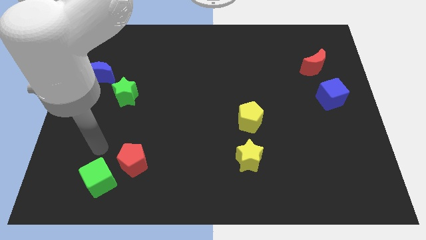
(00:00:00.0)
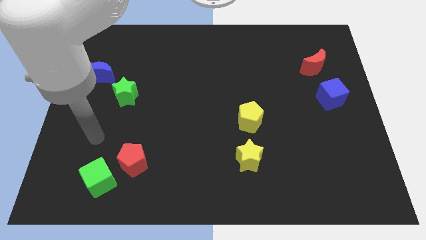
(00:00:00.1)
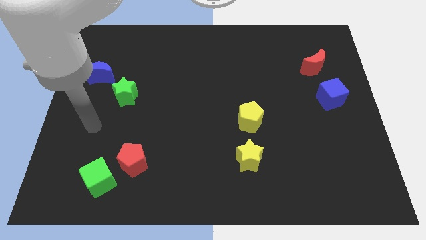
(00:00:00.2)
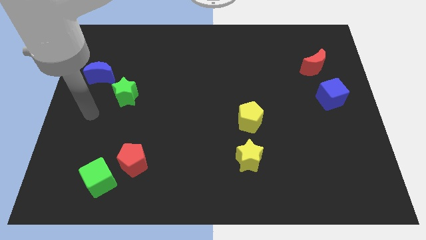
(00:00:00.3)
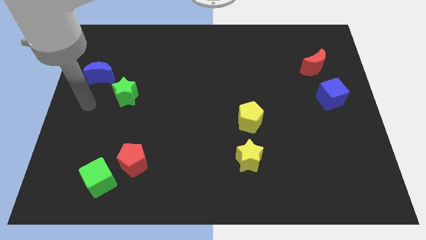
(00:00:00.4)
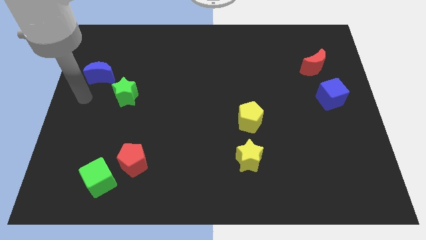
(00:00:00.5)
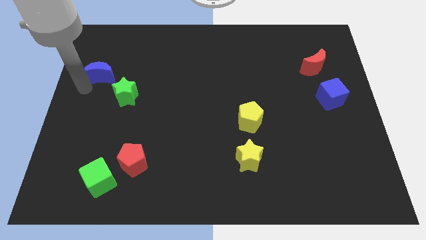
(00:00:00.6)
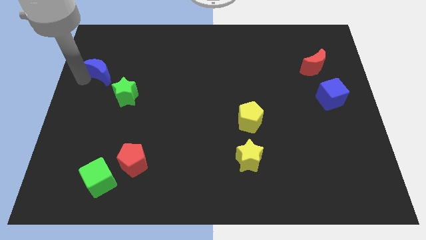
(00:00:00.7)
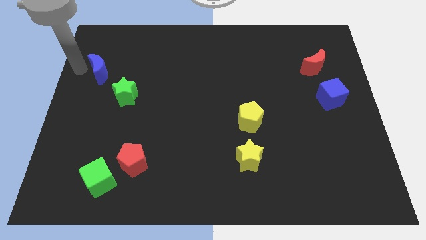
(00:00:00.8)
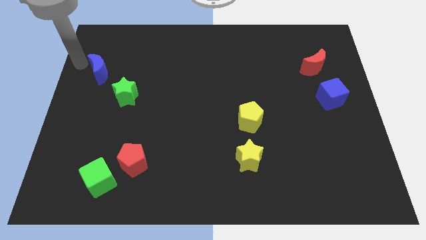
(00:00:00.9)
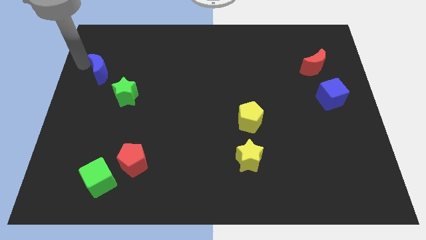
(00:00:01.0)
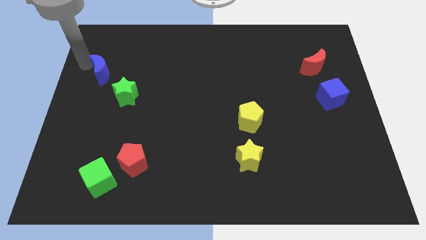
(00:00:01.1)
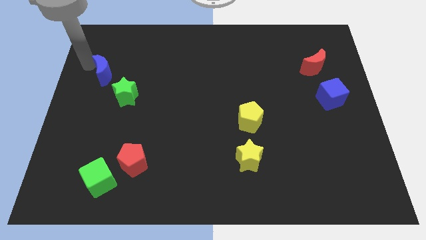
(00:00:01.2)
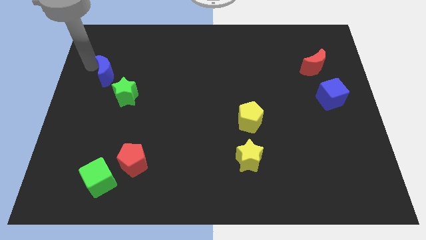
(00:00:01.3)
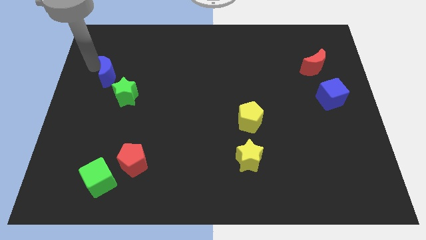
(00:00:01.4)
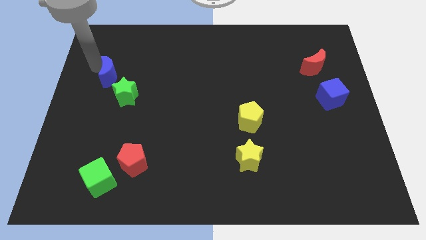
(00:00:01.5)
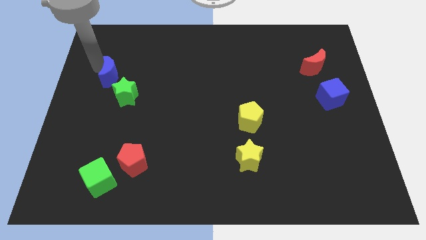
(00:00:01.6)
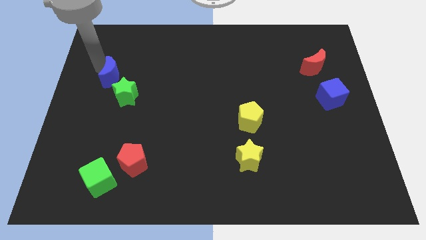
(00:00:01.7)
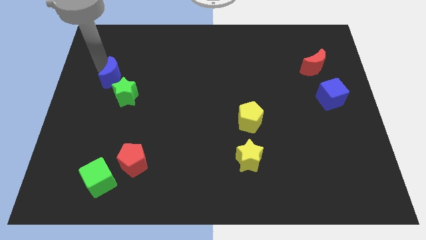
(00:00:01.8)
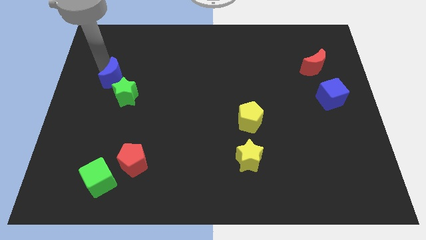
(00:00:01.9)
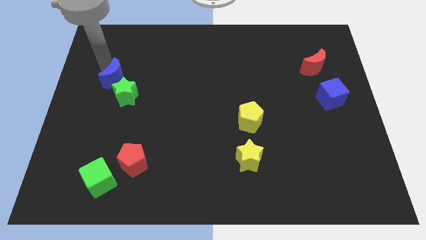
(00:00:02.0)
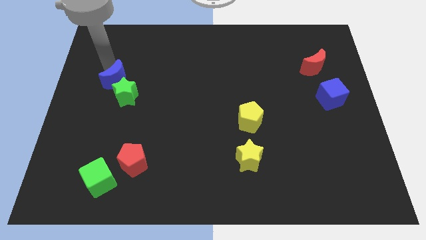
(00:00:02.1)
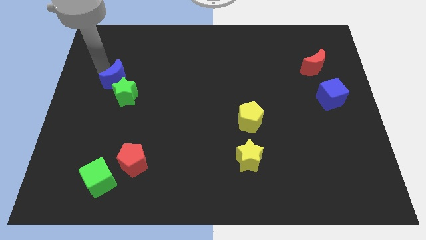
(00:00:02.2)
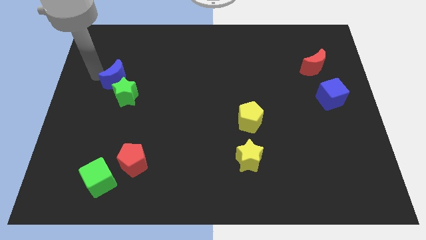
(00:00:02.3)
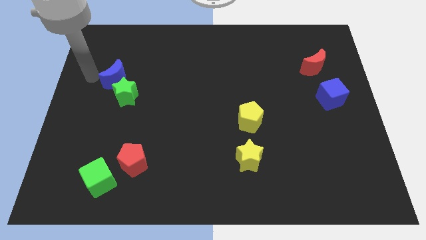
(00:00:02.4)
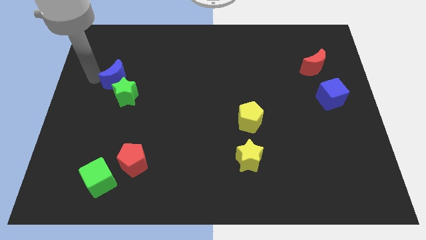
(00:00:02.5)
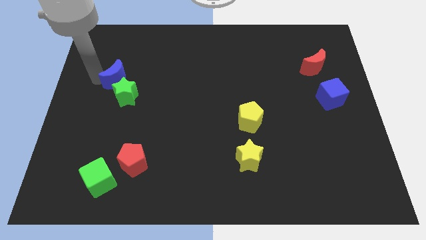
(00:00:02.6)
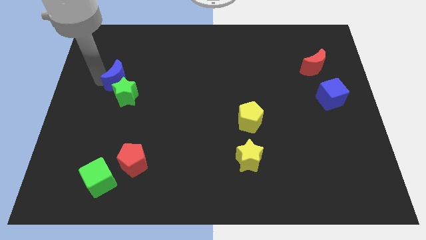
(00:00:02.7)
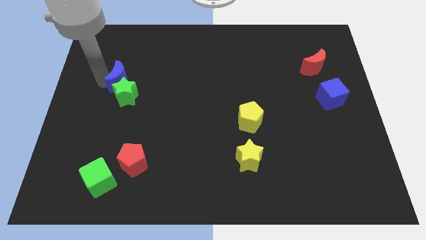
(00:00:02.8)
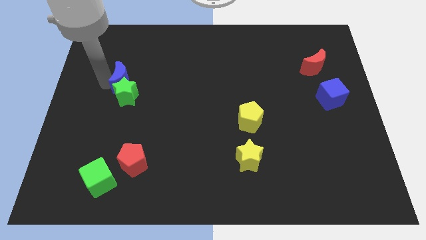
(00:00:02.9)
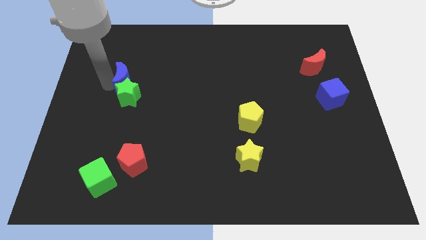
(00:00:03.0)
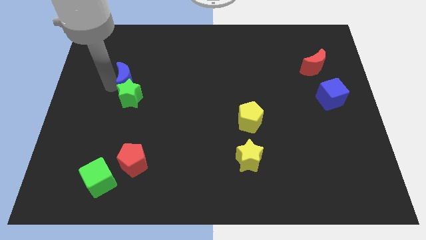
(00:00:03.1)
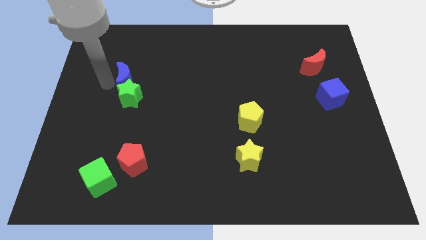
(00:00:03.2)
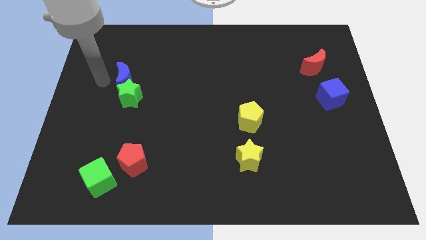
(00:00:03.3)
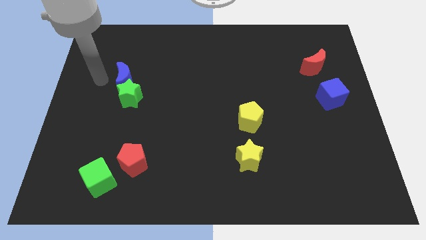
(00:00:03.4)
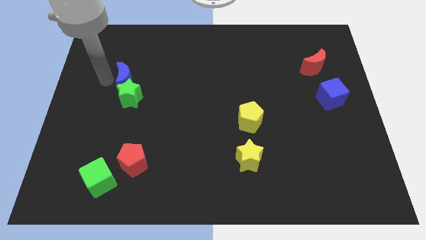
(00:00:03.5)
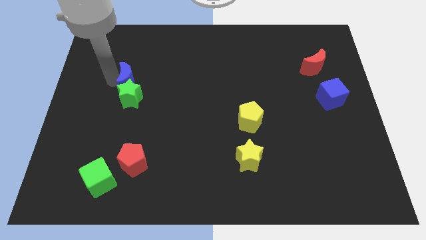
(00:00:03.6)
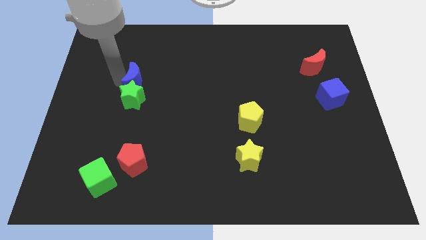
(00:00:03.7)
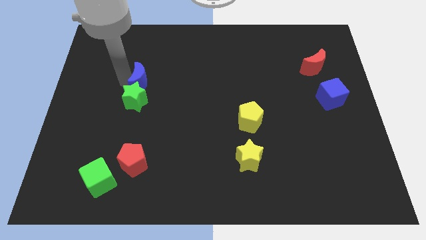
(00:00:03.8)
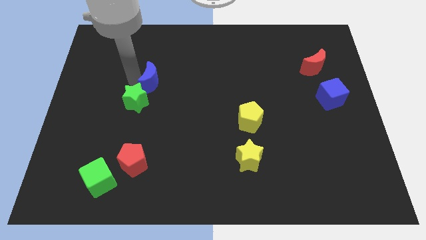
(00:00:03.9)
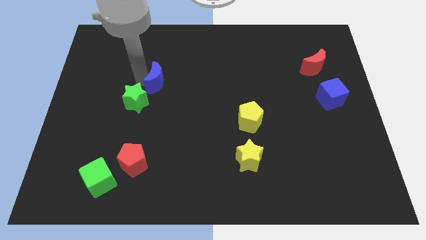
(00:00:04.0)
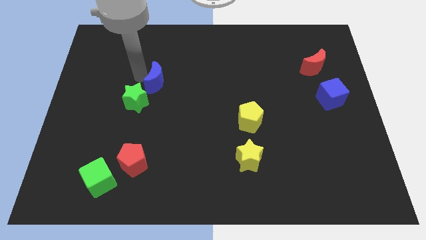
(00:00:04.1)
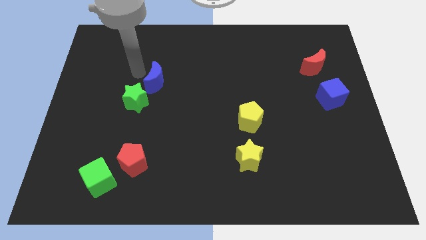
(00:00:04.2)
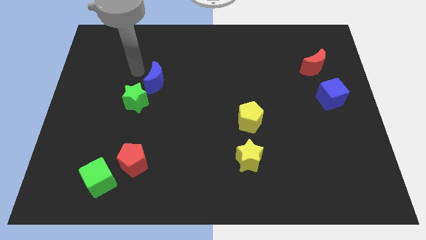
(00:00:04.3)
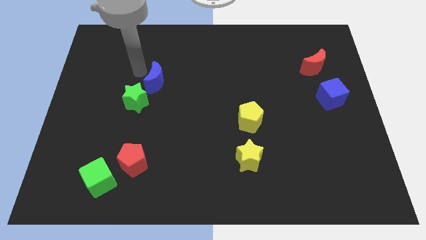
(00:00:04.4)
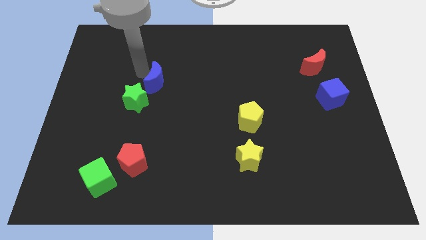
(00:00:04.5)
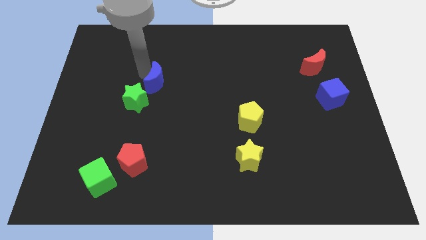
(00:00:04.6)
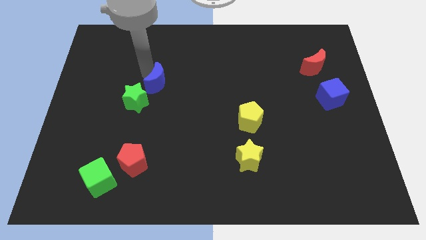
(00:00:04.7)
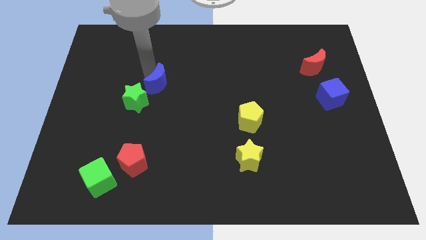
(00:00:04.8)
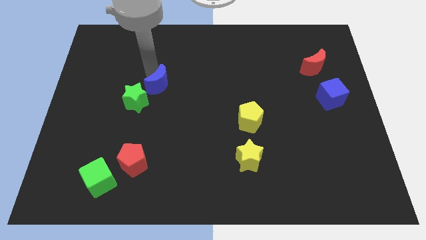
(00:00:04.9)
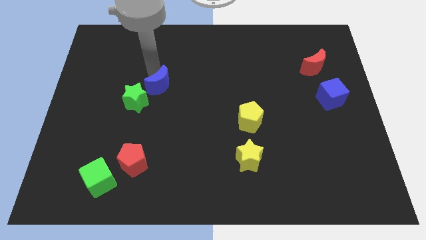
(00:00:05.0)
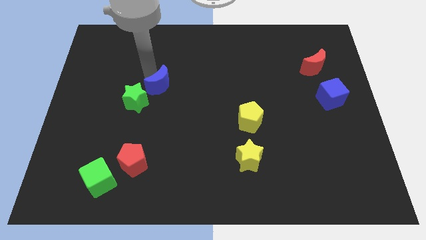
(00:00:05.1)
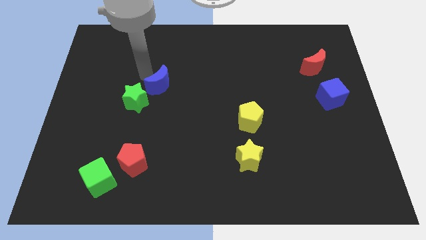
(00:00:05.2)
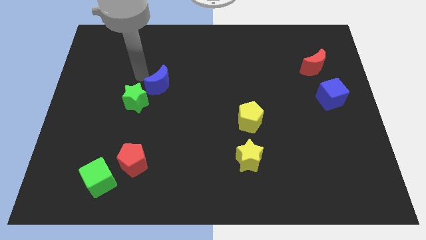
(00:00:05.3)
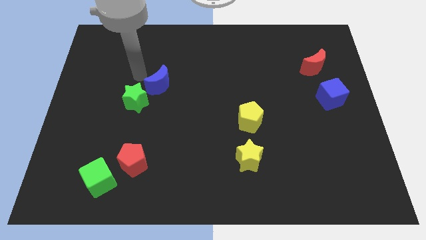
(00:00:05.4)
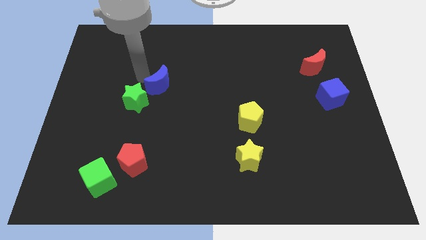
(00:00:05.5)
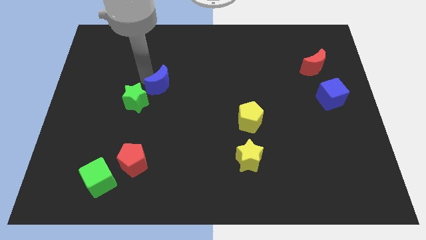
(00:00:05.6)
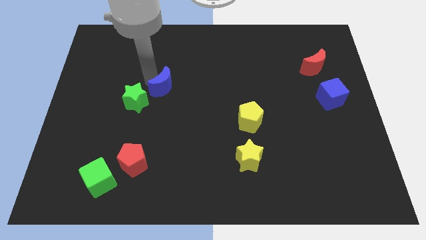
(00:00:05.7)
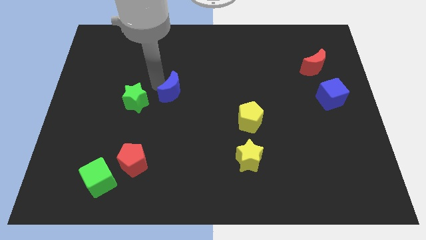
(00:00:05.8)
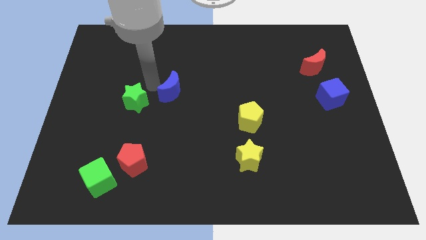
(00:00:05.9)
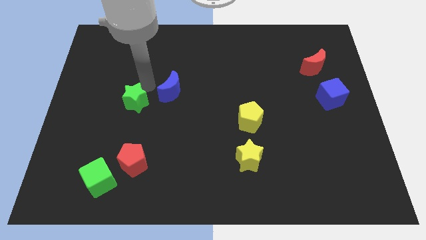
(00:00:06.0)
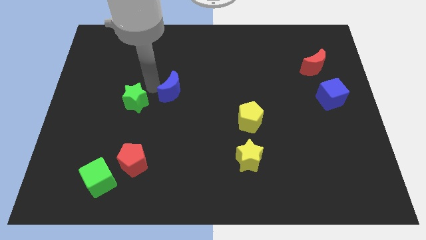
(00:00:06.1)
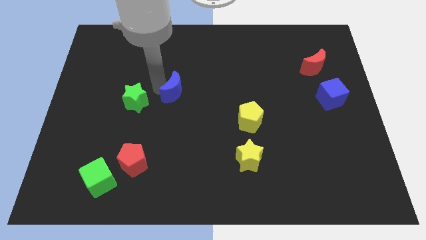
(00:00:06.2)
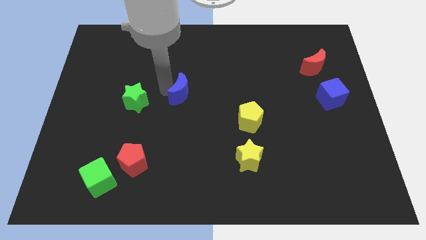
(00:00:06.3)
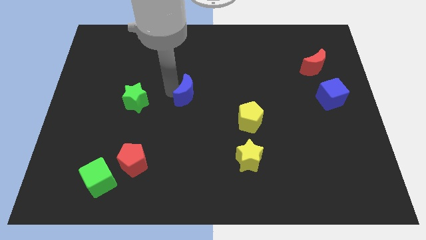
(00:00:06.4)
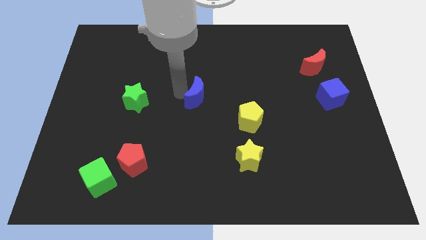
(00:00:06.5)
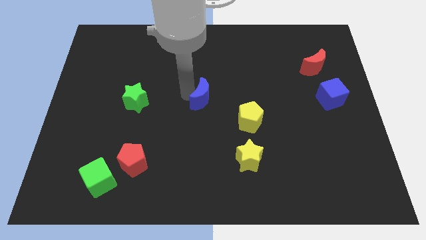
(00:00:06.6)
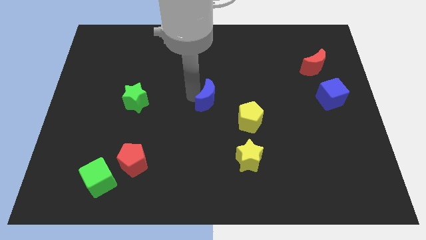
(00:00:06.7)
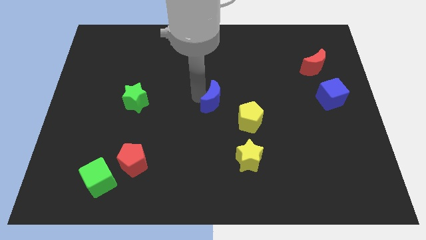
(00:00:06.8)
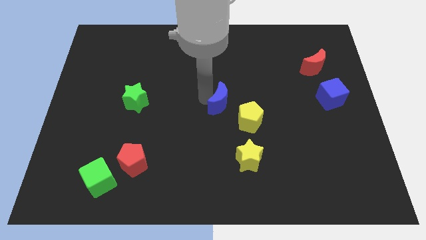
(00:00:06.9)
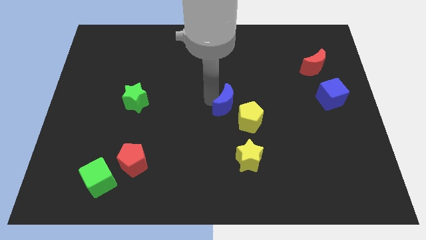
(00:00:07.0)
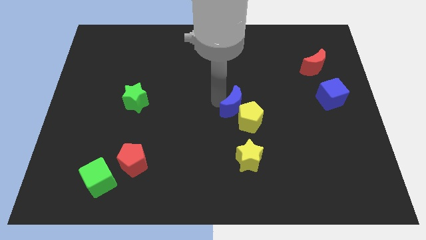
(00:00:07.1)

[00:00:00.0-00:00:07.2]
move the blue moon close to the yellow pentagon
